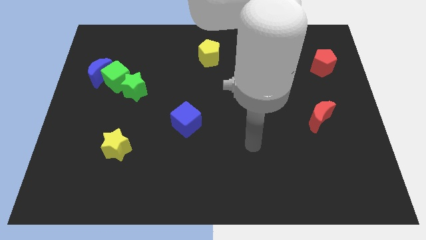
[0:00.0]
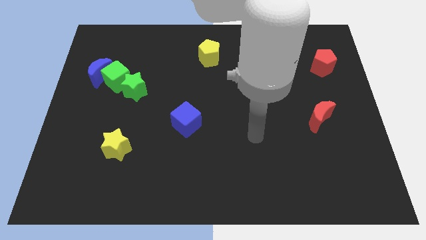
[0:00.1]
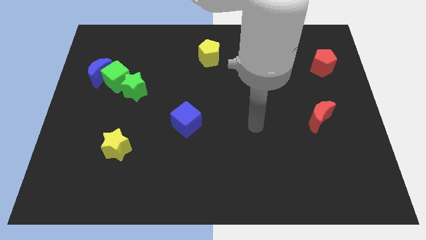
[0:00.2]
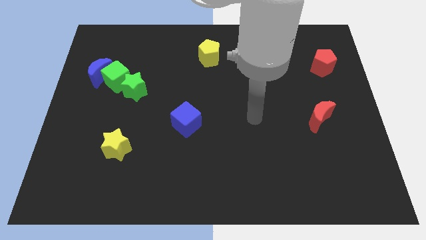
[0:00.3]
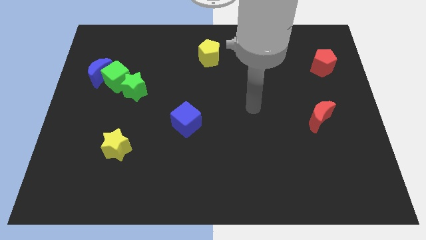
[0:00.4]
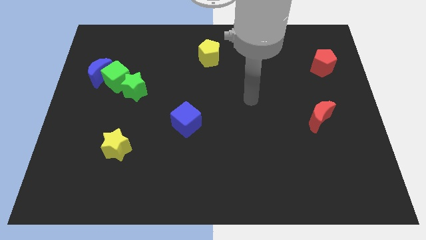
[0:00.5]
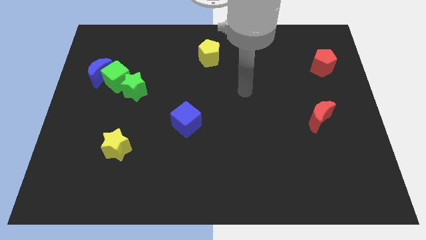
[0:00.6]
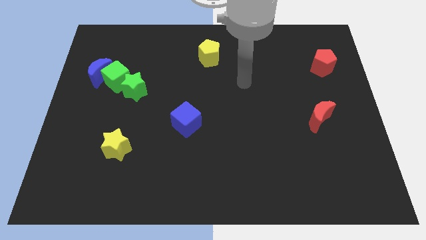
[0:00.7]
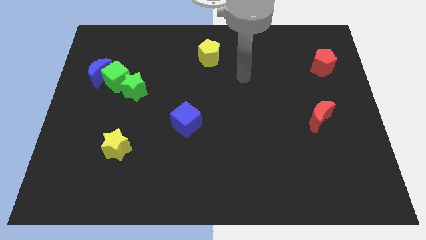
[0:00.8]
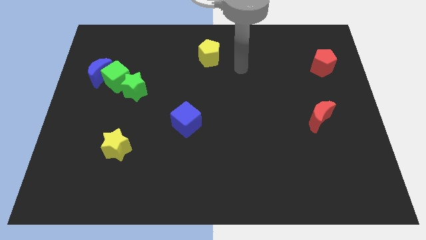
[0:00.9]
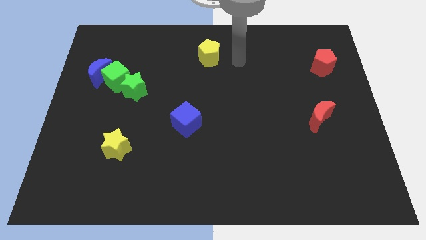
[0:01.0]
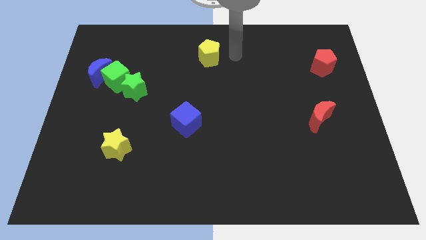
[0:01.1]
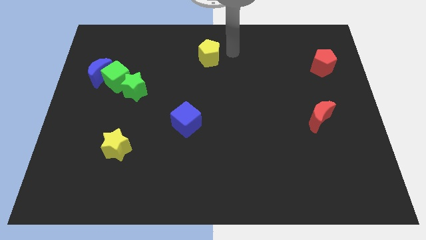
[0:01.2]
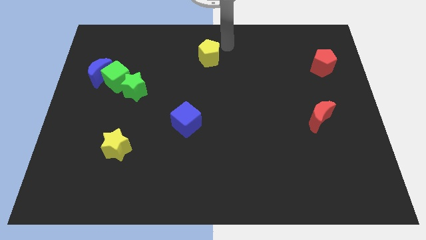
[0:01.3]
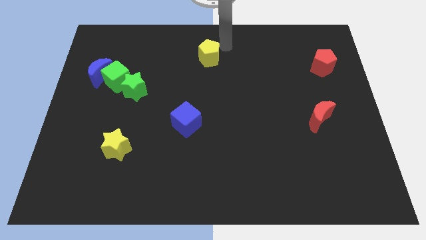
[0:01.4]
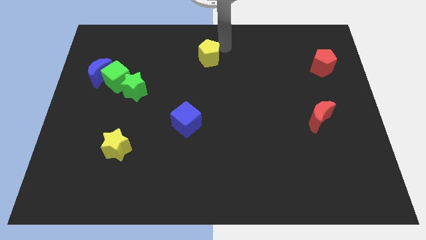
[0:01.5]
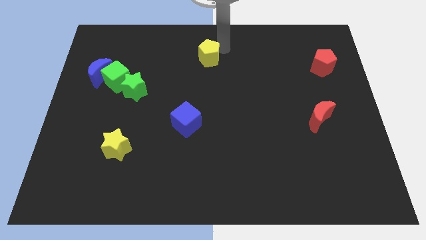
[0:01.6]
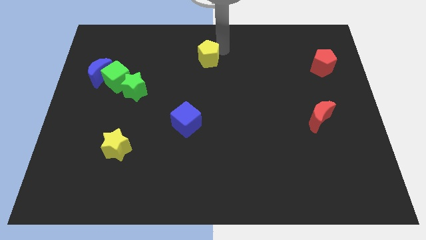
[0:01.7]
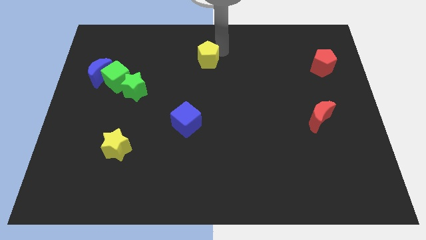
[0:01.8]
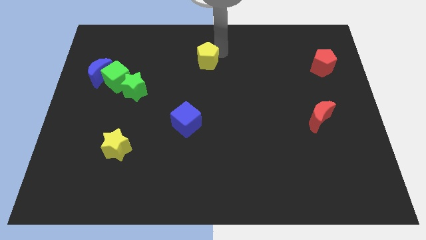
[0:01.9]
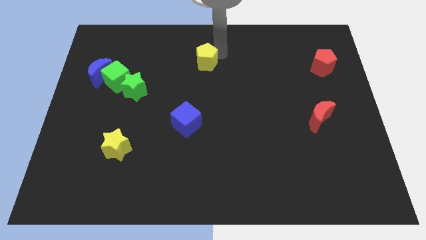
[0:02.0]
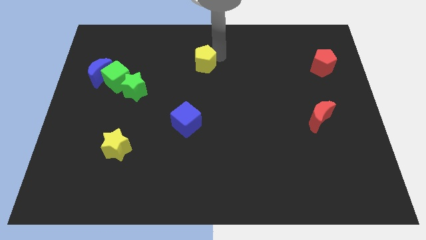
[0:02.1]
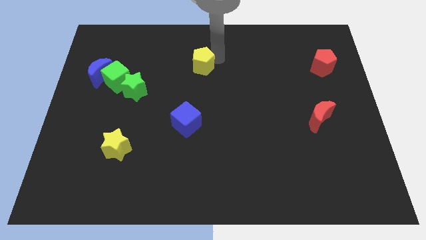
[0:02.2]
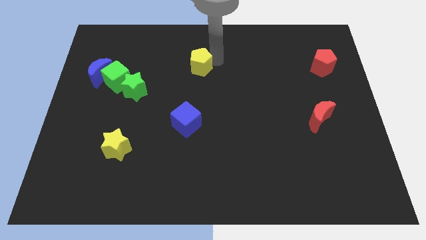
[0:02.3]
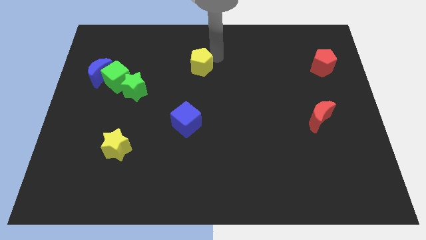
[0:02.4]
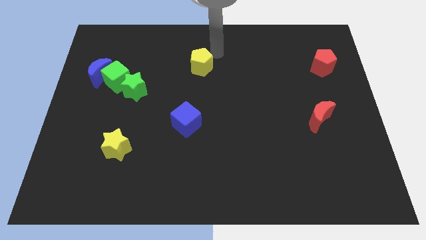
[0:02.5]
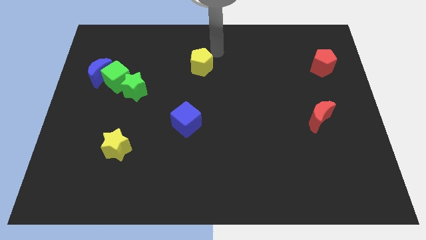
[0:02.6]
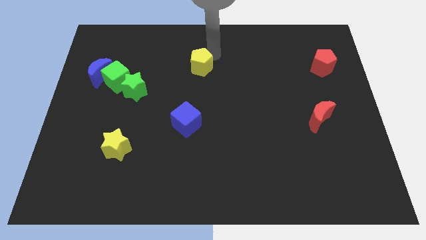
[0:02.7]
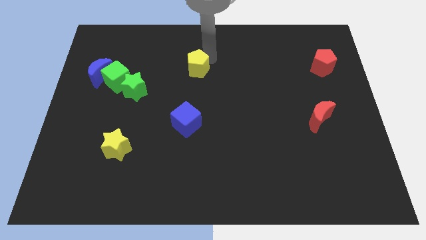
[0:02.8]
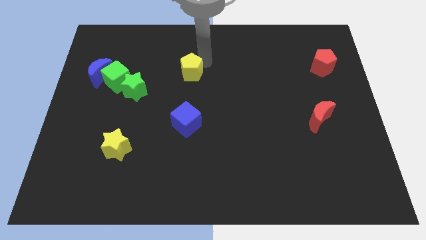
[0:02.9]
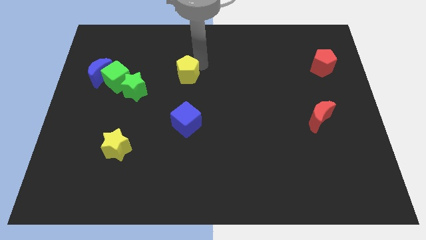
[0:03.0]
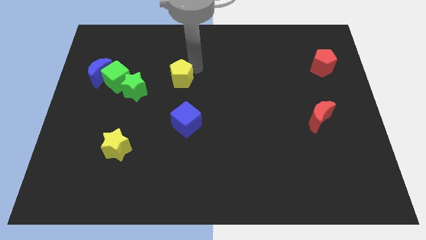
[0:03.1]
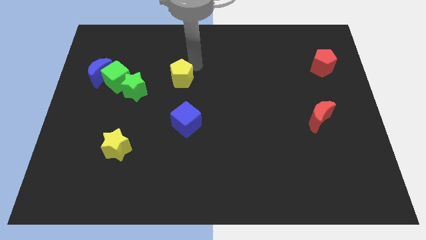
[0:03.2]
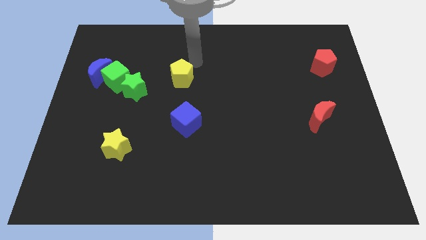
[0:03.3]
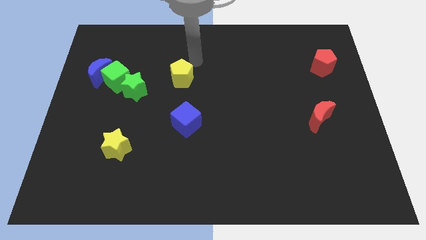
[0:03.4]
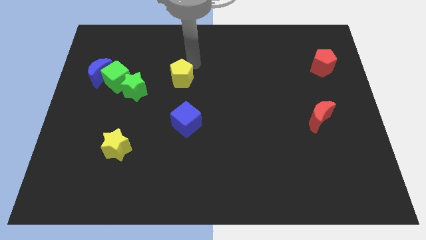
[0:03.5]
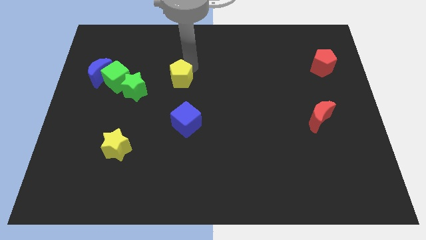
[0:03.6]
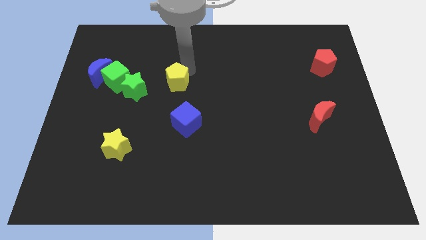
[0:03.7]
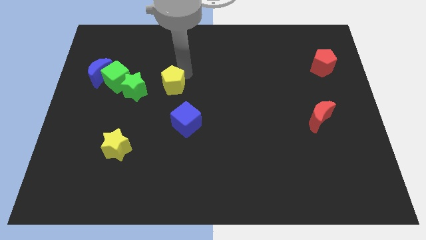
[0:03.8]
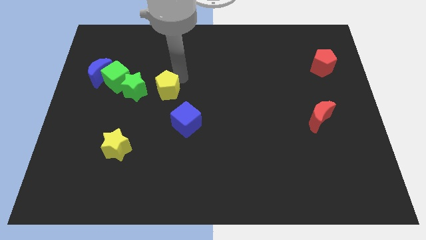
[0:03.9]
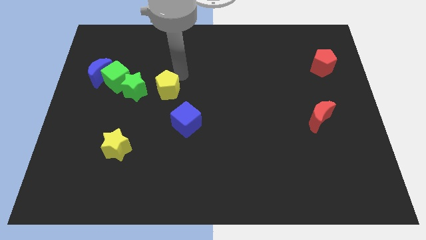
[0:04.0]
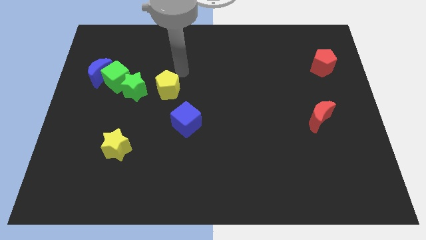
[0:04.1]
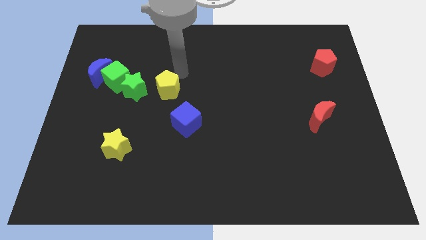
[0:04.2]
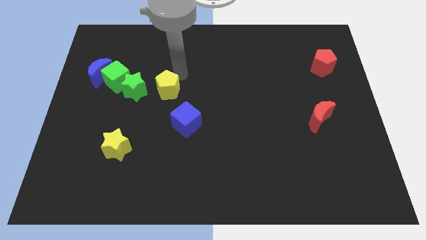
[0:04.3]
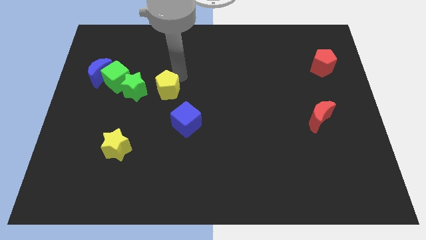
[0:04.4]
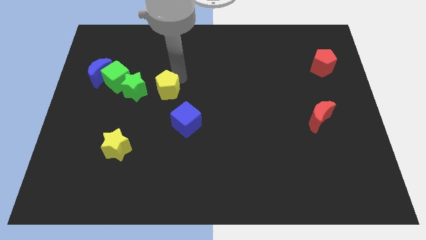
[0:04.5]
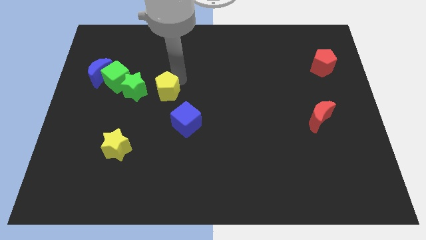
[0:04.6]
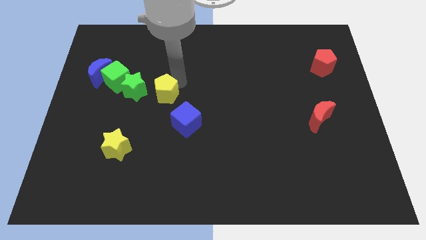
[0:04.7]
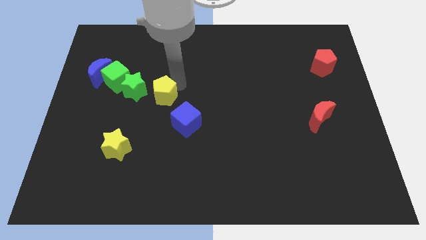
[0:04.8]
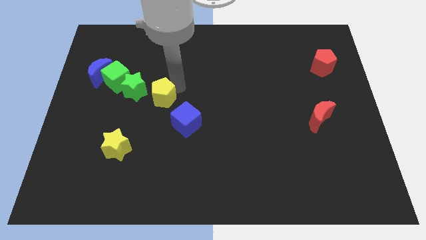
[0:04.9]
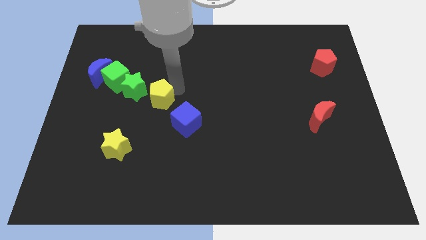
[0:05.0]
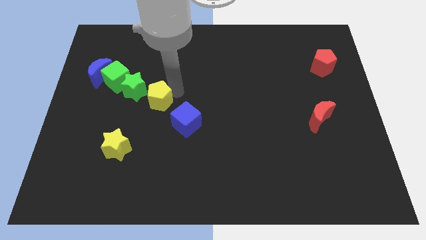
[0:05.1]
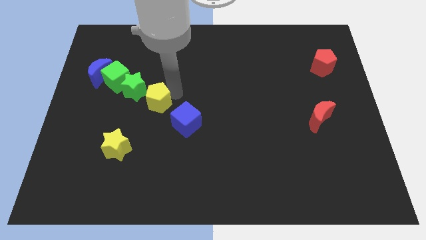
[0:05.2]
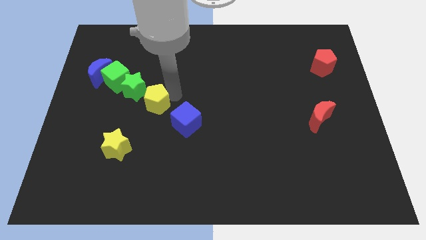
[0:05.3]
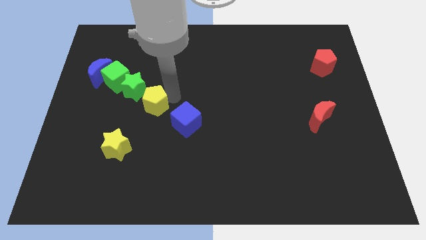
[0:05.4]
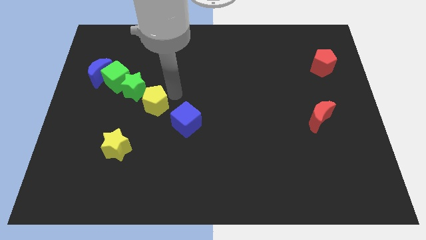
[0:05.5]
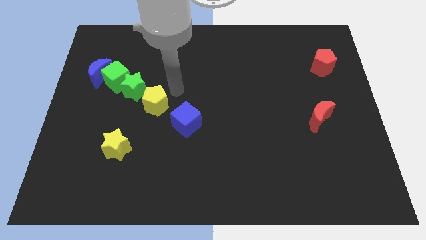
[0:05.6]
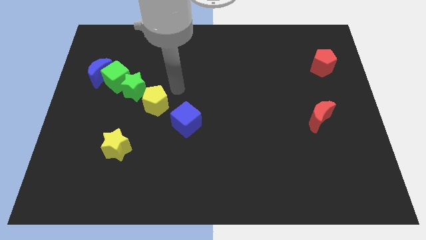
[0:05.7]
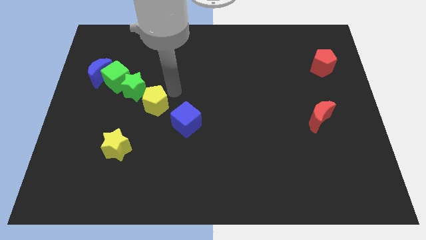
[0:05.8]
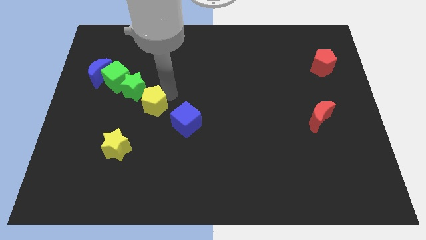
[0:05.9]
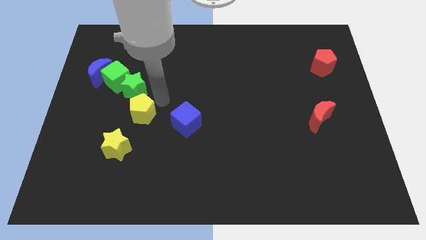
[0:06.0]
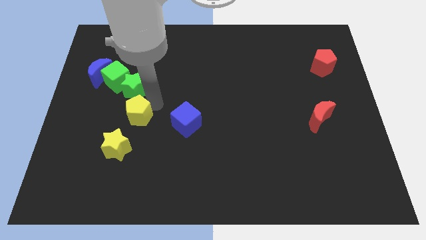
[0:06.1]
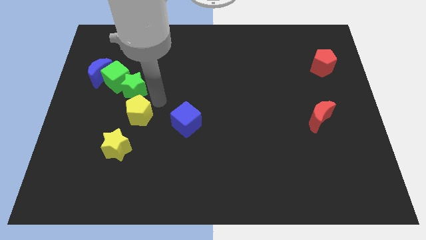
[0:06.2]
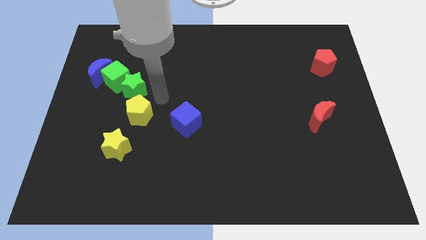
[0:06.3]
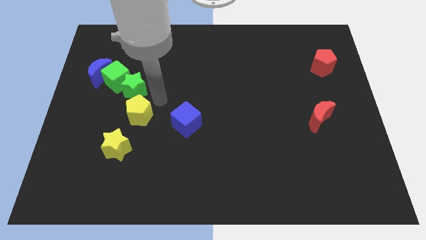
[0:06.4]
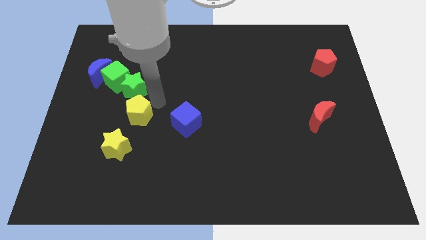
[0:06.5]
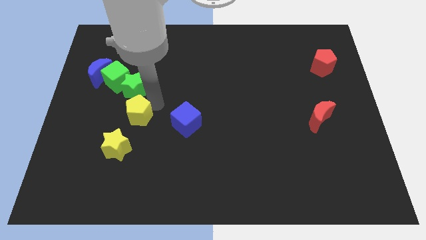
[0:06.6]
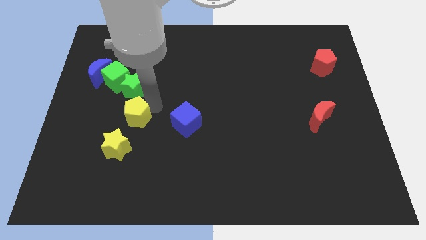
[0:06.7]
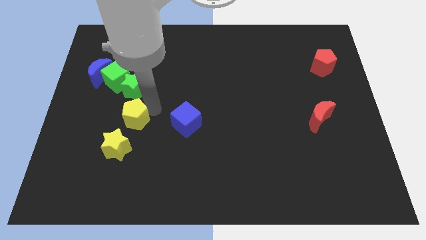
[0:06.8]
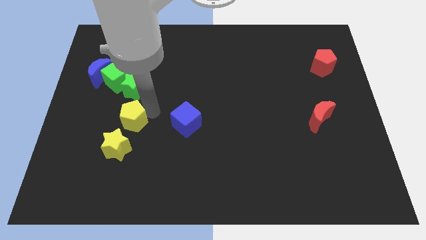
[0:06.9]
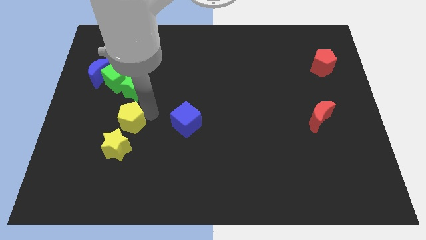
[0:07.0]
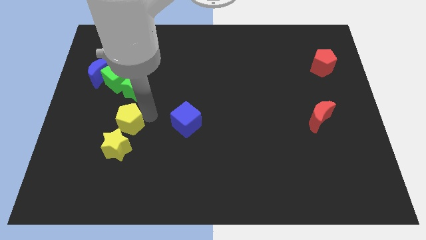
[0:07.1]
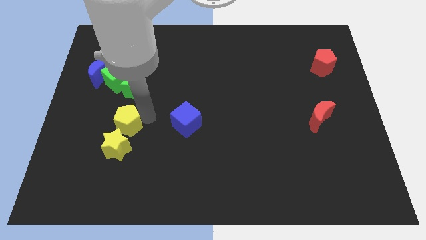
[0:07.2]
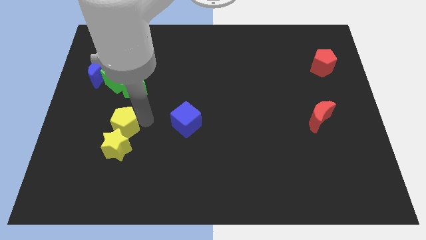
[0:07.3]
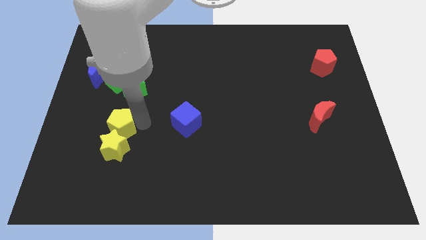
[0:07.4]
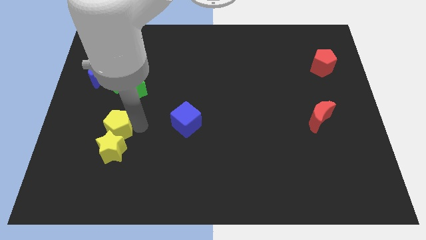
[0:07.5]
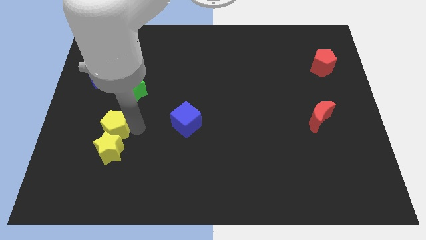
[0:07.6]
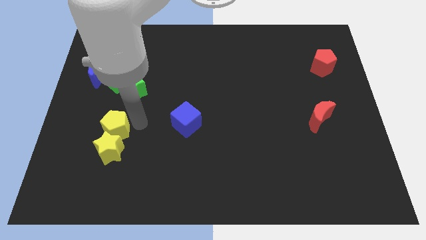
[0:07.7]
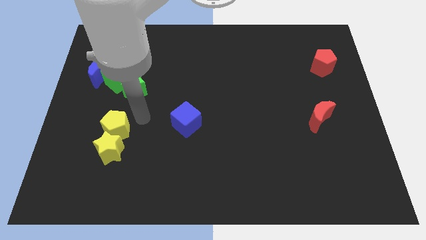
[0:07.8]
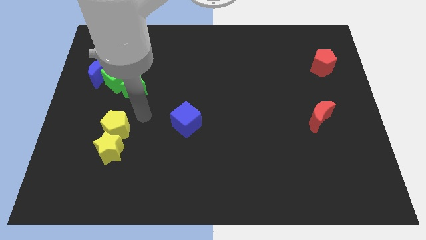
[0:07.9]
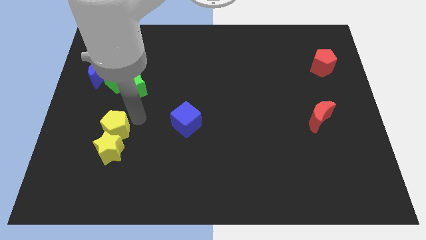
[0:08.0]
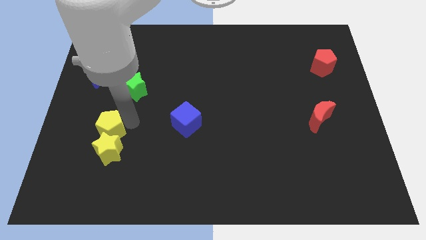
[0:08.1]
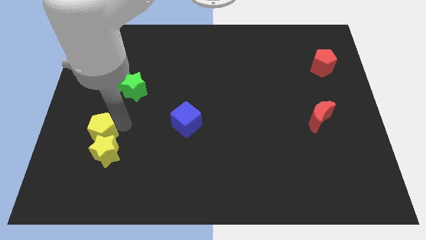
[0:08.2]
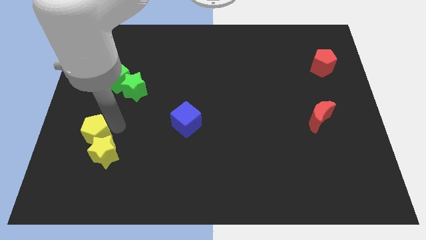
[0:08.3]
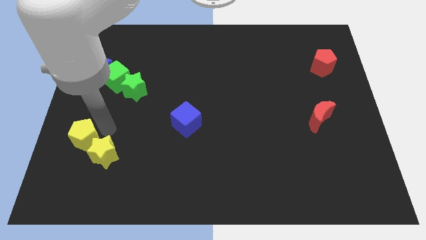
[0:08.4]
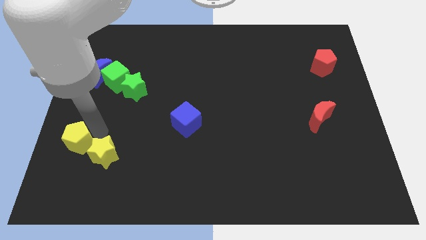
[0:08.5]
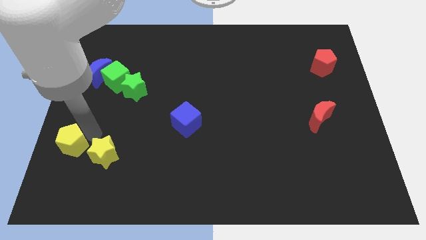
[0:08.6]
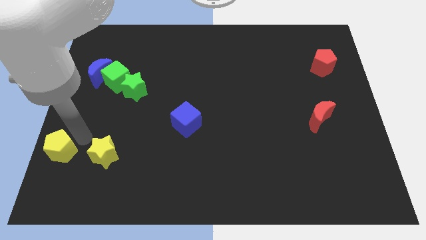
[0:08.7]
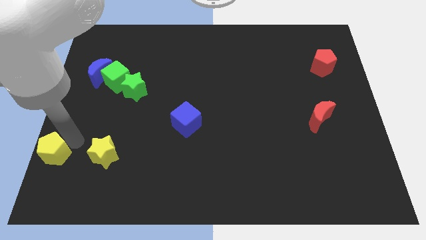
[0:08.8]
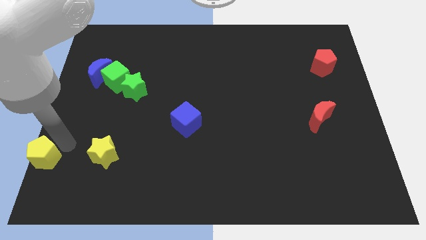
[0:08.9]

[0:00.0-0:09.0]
move the yellow pentagon to the bottom left corner
